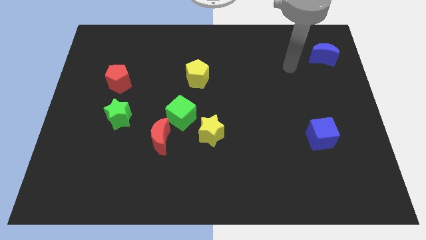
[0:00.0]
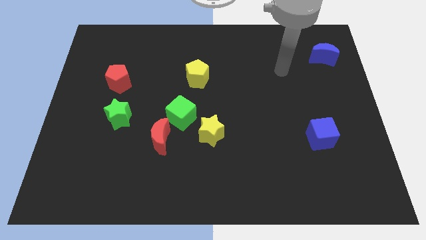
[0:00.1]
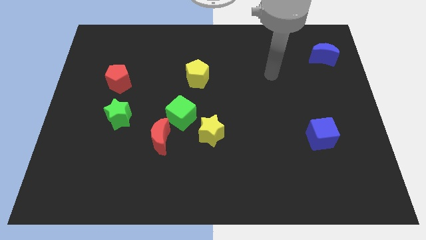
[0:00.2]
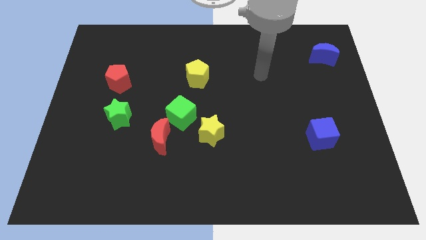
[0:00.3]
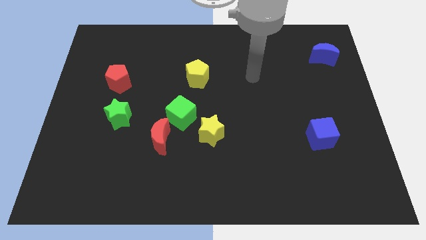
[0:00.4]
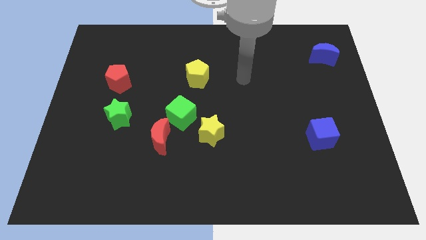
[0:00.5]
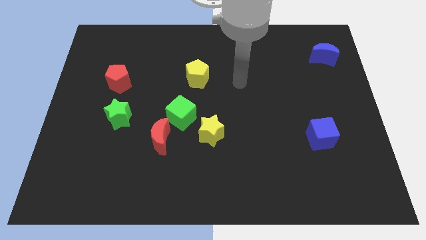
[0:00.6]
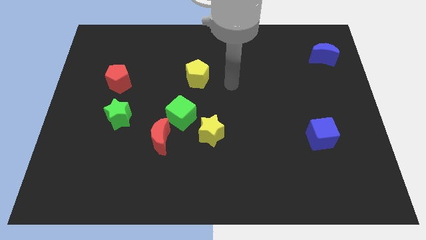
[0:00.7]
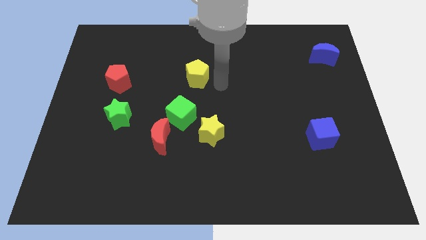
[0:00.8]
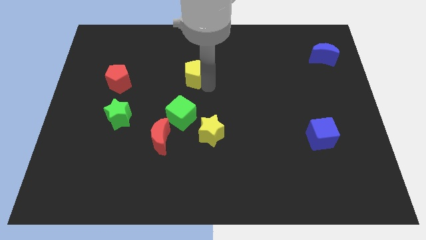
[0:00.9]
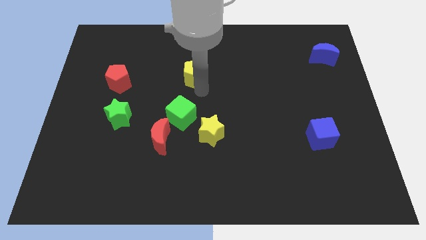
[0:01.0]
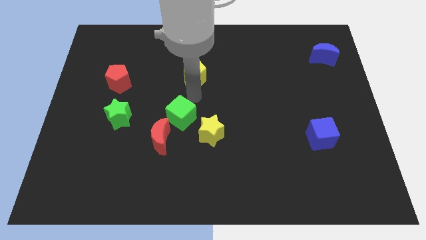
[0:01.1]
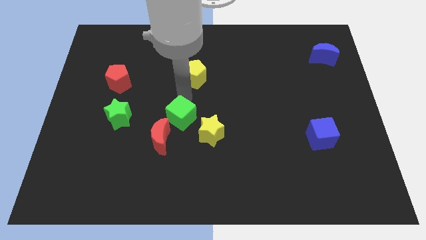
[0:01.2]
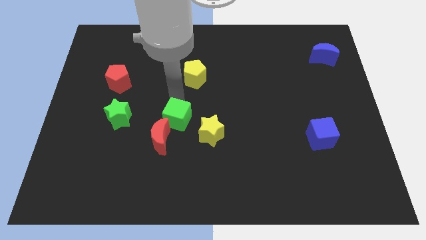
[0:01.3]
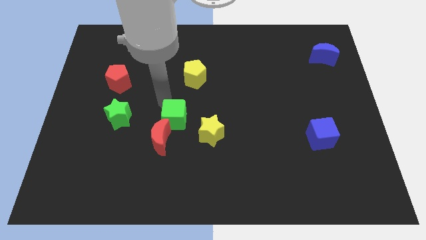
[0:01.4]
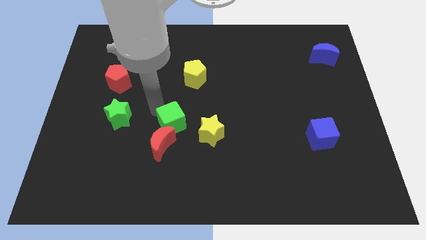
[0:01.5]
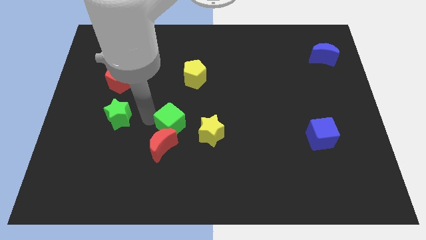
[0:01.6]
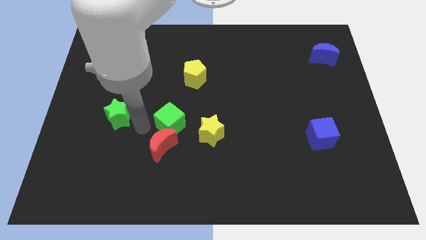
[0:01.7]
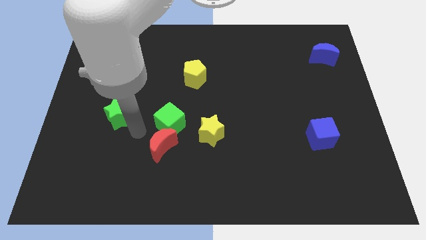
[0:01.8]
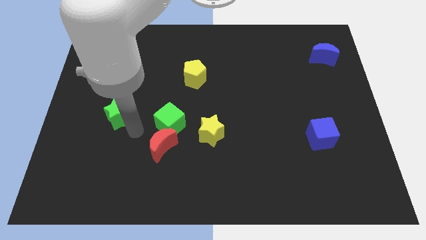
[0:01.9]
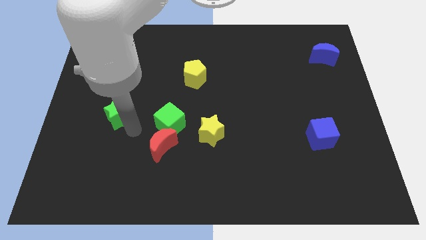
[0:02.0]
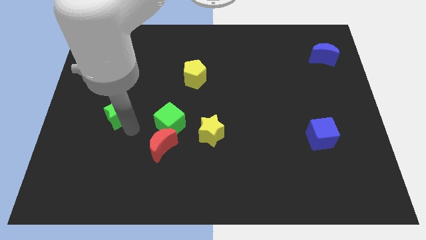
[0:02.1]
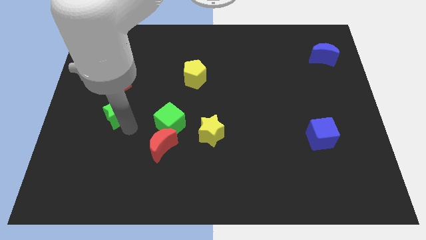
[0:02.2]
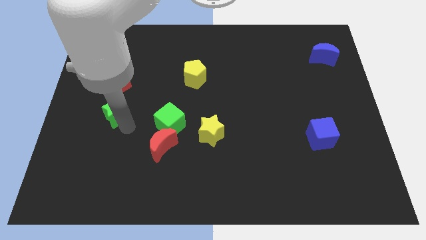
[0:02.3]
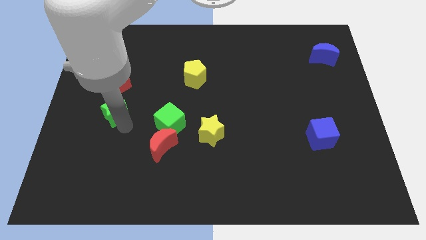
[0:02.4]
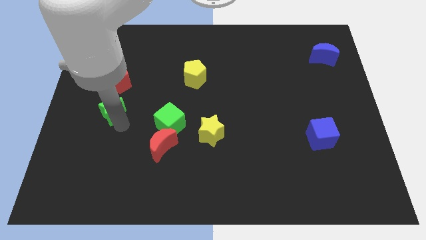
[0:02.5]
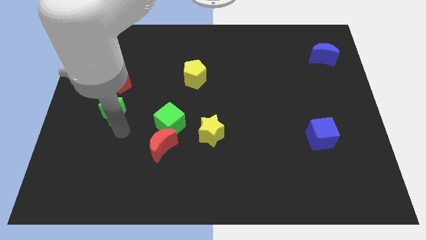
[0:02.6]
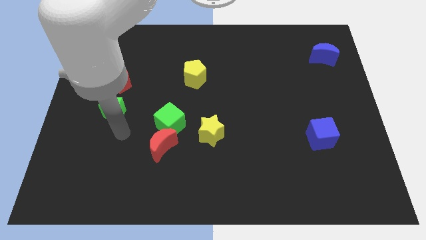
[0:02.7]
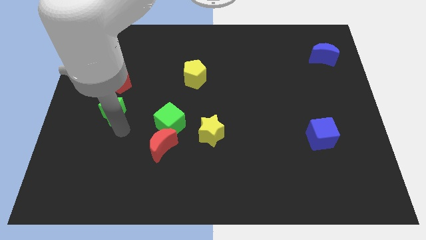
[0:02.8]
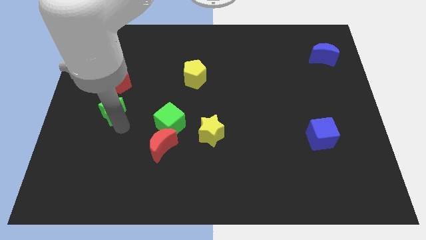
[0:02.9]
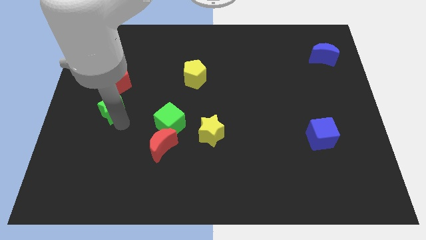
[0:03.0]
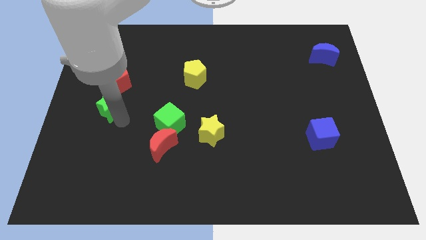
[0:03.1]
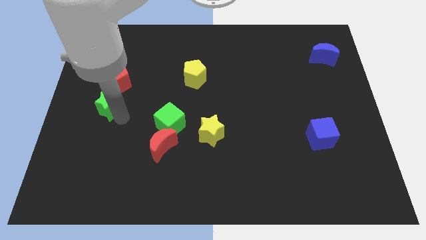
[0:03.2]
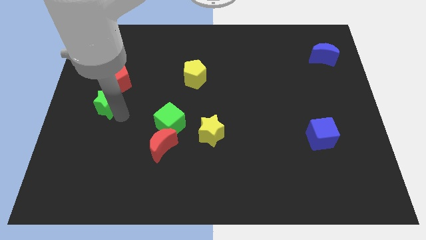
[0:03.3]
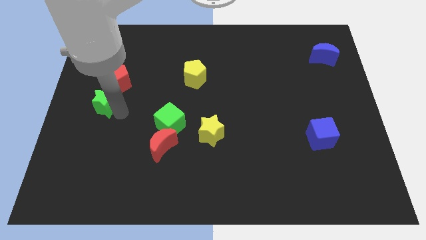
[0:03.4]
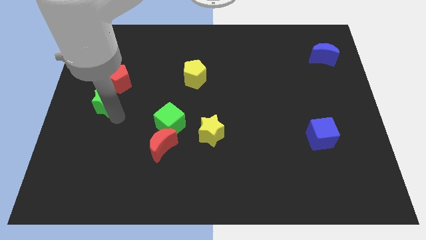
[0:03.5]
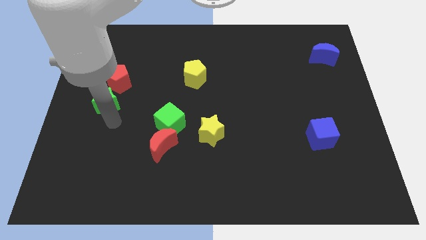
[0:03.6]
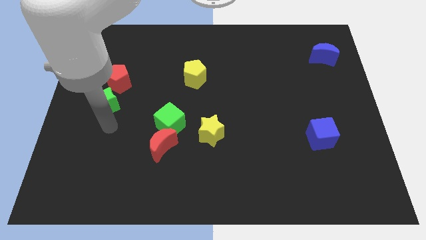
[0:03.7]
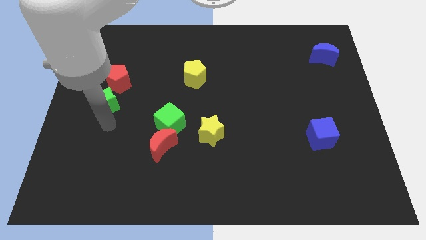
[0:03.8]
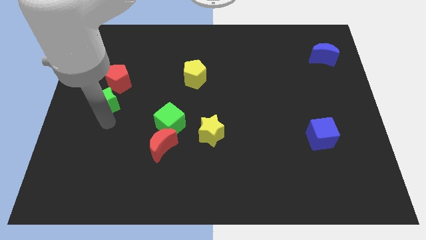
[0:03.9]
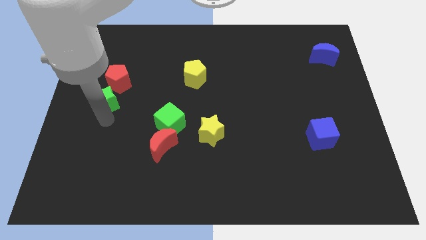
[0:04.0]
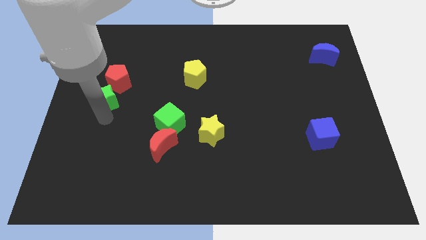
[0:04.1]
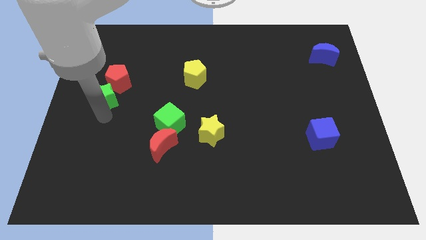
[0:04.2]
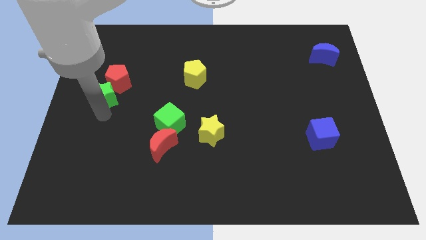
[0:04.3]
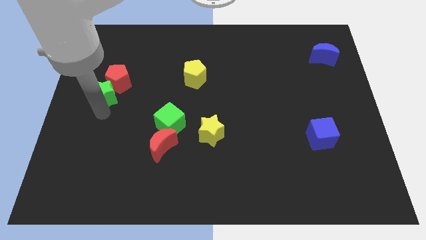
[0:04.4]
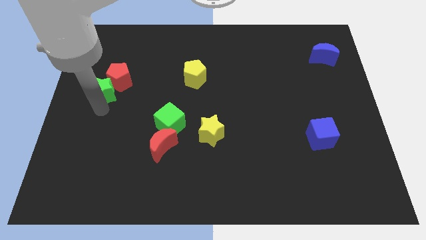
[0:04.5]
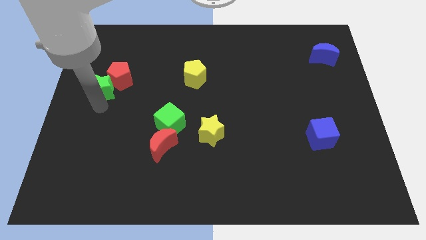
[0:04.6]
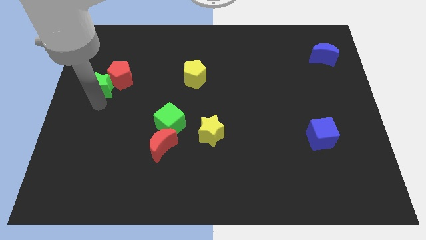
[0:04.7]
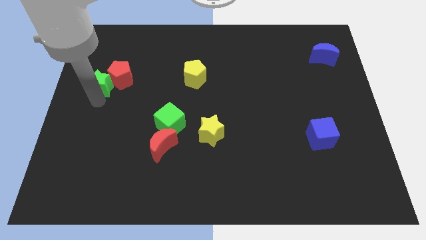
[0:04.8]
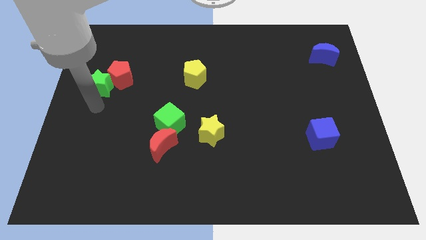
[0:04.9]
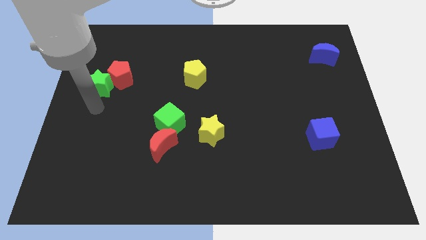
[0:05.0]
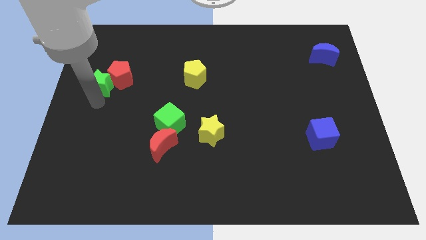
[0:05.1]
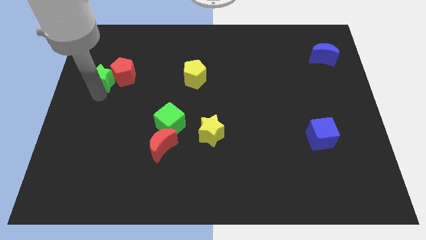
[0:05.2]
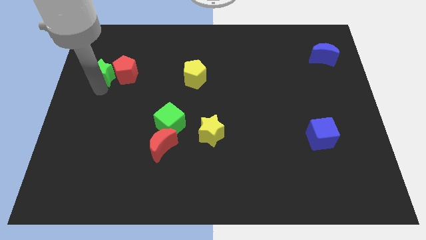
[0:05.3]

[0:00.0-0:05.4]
push the green star diagonally up and to the left of the red pentagon

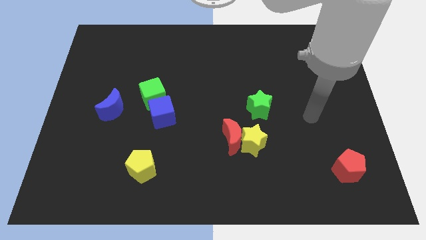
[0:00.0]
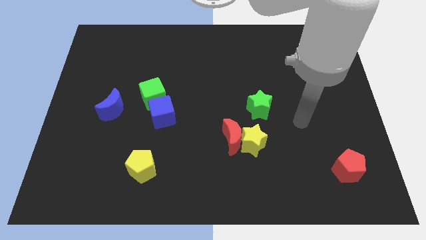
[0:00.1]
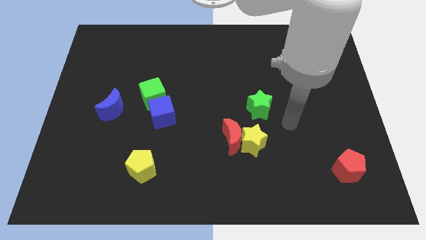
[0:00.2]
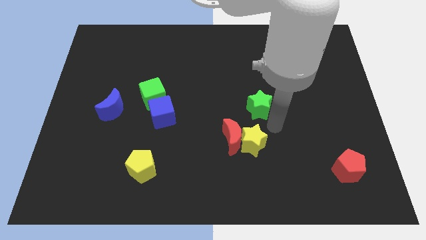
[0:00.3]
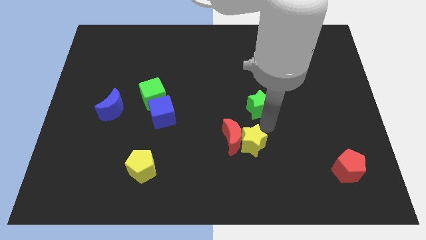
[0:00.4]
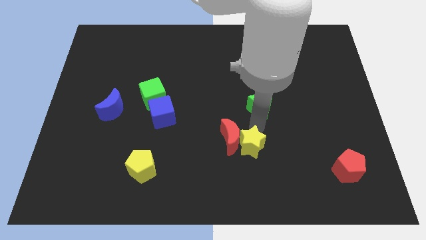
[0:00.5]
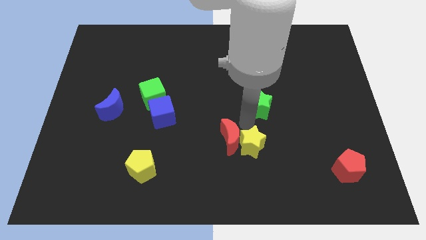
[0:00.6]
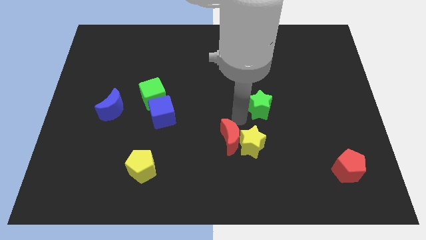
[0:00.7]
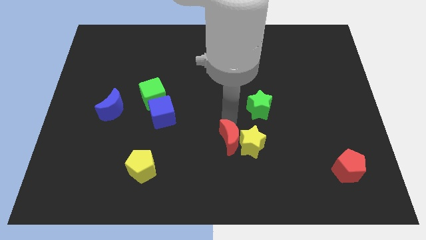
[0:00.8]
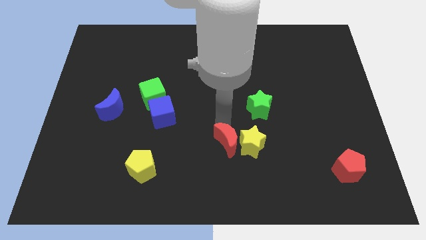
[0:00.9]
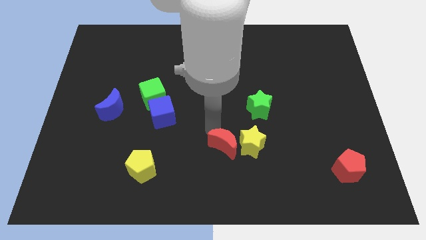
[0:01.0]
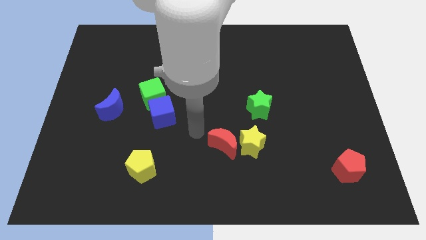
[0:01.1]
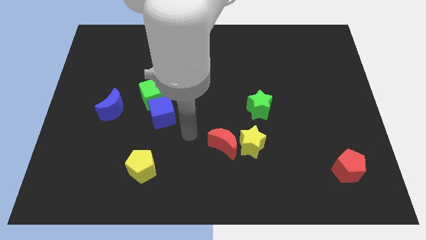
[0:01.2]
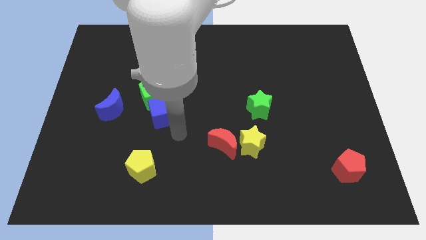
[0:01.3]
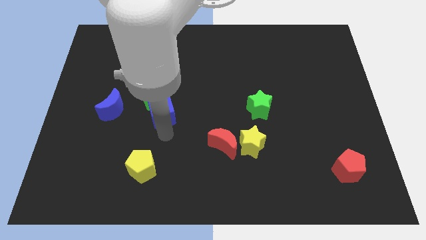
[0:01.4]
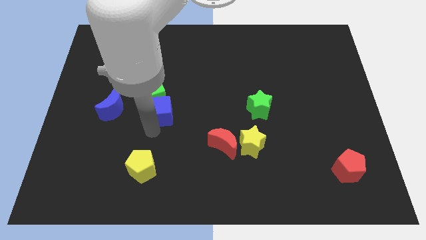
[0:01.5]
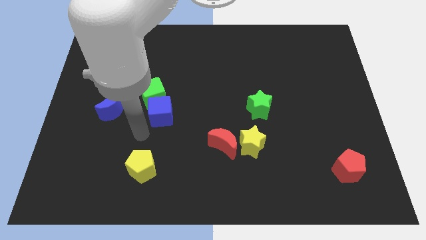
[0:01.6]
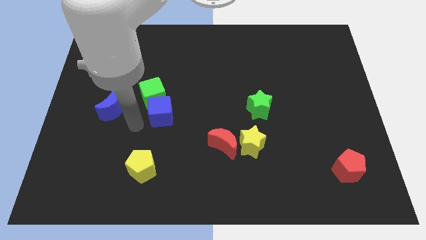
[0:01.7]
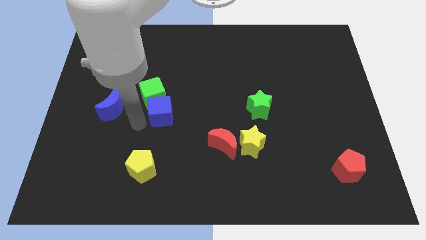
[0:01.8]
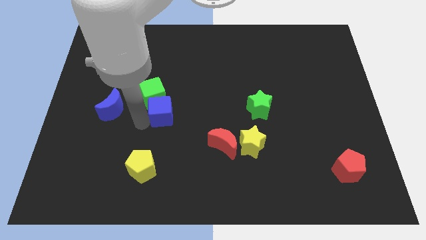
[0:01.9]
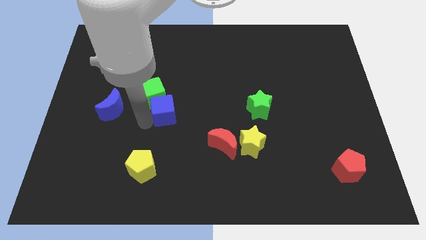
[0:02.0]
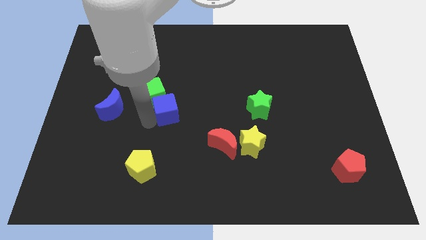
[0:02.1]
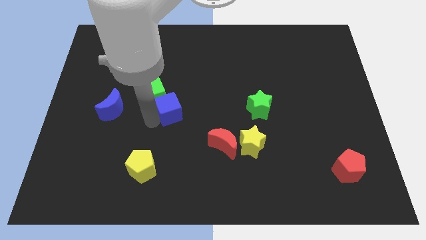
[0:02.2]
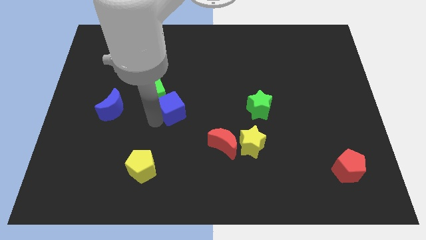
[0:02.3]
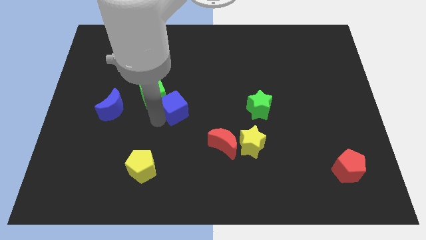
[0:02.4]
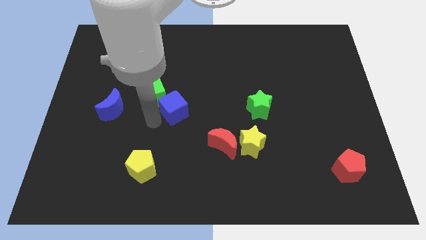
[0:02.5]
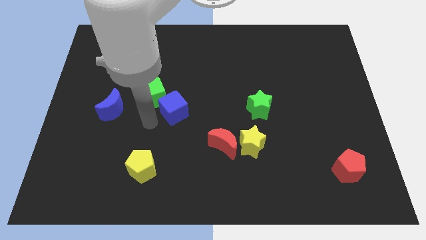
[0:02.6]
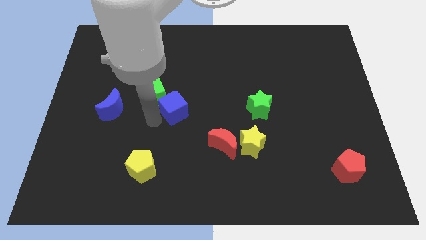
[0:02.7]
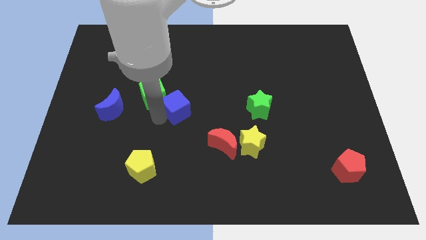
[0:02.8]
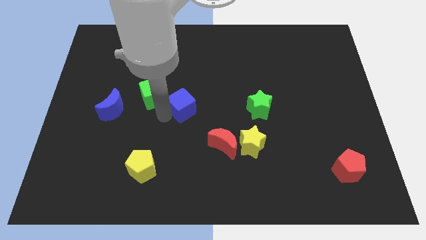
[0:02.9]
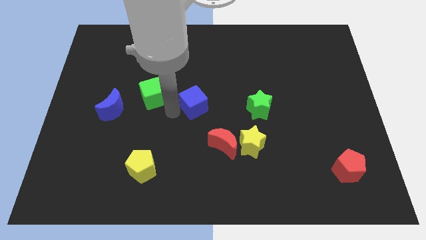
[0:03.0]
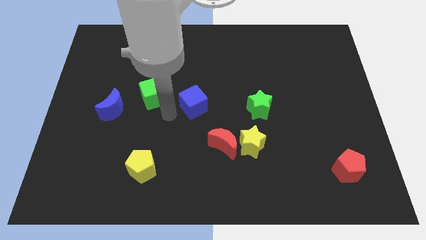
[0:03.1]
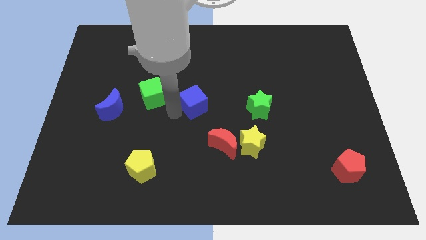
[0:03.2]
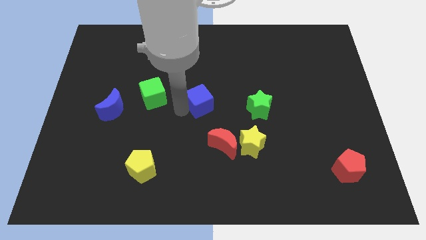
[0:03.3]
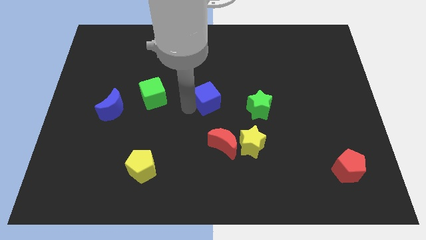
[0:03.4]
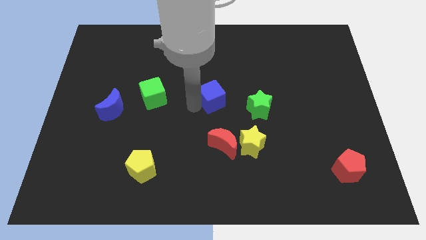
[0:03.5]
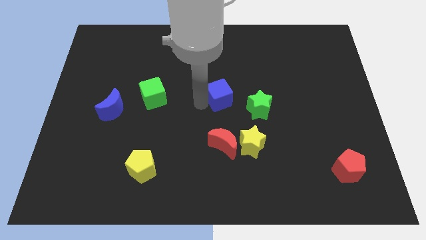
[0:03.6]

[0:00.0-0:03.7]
put the blue cube diagonally up and to the left of the green star
